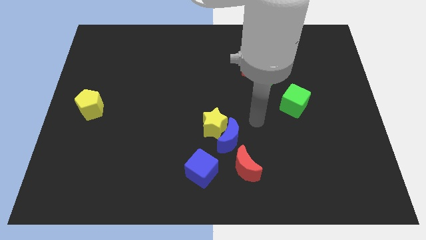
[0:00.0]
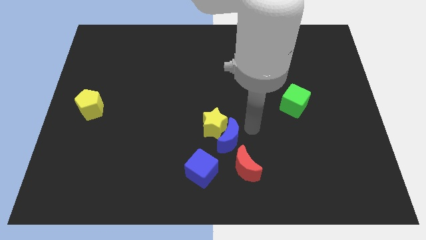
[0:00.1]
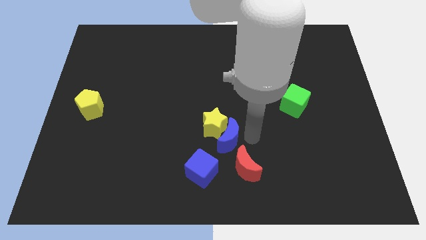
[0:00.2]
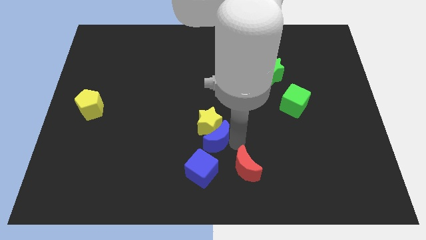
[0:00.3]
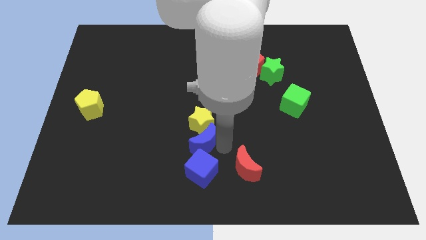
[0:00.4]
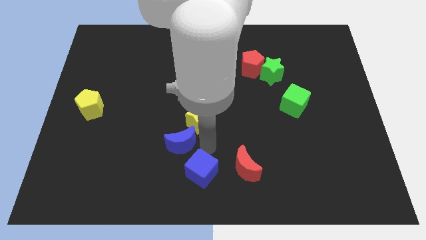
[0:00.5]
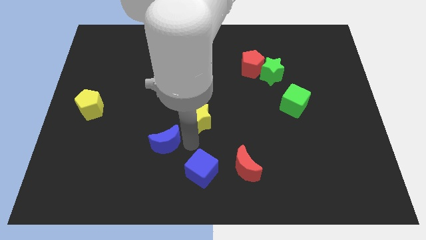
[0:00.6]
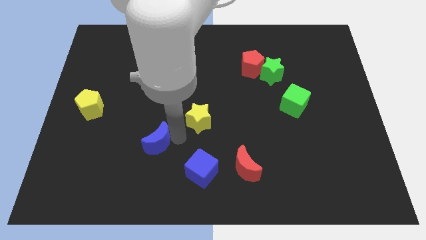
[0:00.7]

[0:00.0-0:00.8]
move the yellow star away from the blue moon

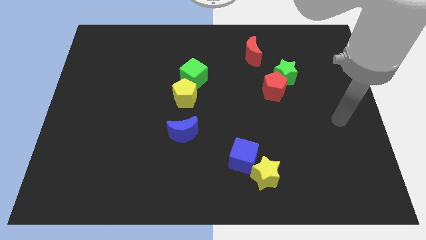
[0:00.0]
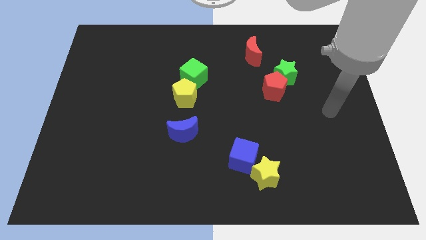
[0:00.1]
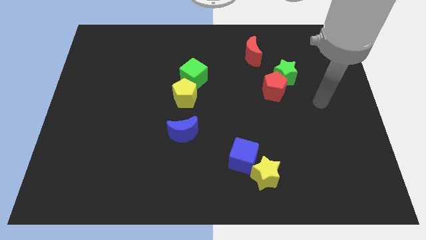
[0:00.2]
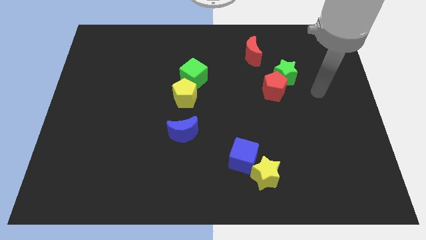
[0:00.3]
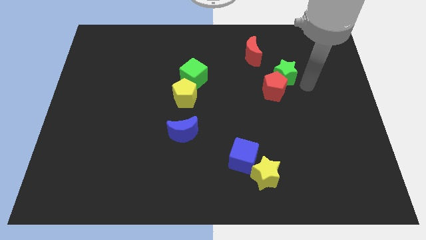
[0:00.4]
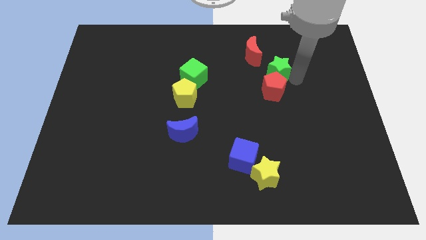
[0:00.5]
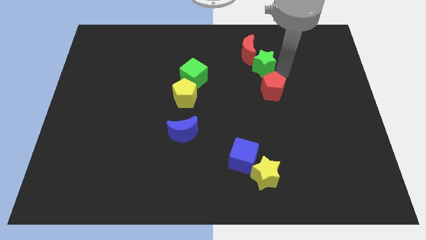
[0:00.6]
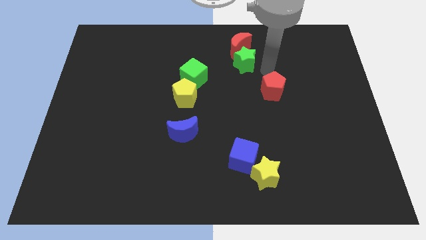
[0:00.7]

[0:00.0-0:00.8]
separate the red pentagon from the green star

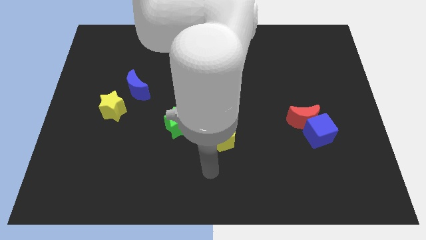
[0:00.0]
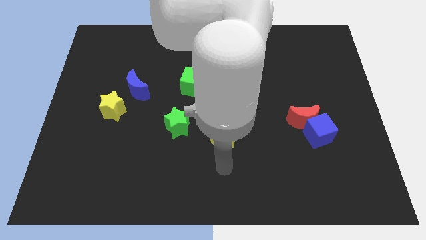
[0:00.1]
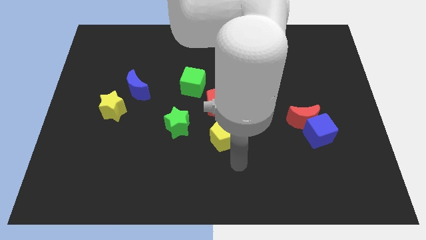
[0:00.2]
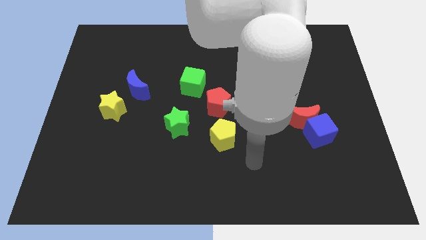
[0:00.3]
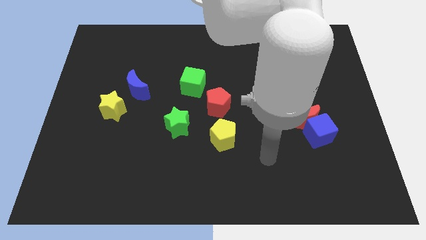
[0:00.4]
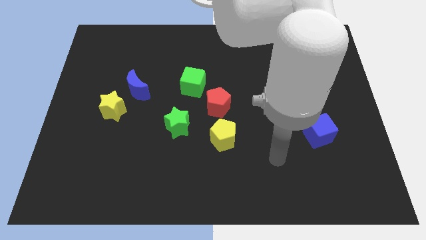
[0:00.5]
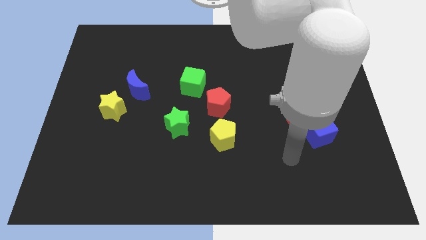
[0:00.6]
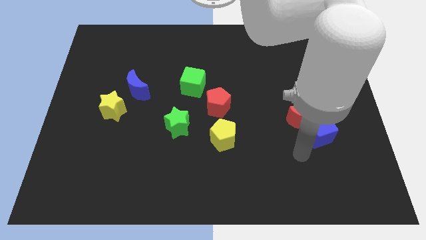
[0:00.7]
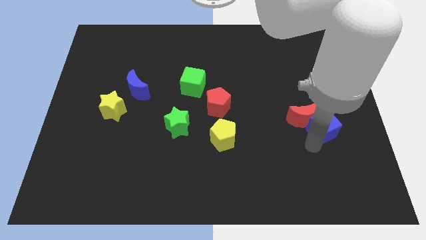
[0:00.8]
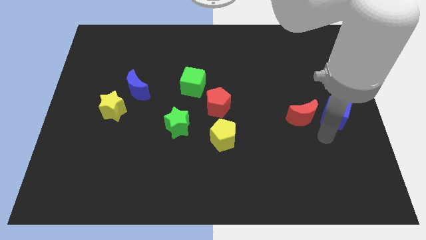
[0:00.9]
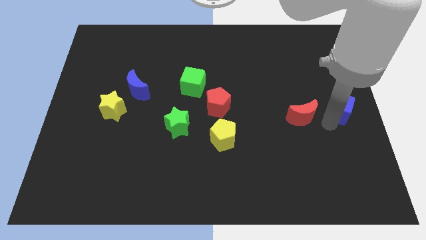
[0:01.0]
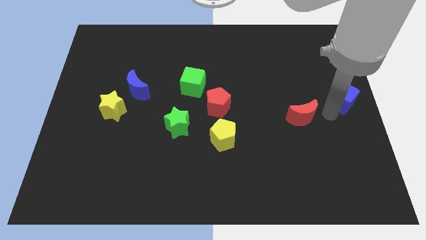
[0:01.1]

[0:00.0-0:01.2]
move the red moon away from the blue cube

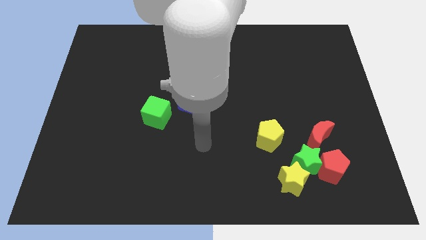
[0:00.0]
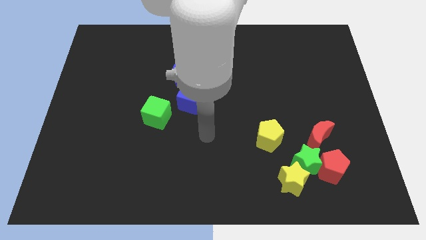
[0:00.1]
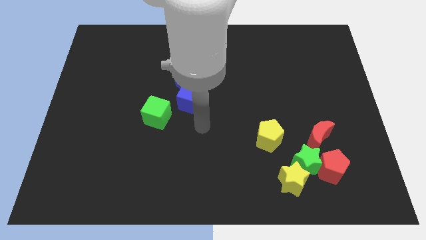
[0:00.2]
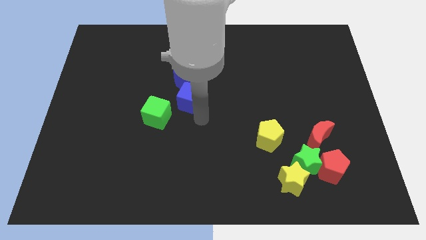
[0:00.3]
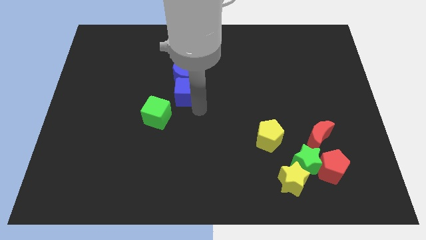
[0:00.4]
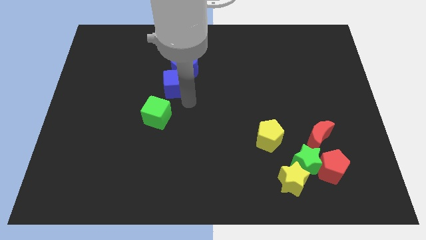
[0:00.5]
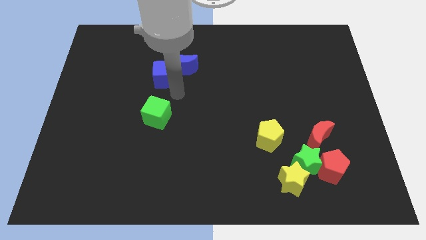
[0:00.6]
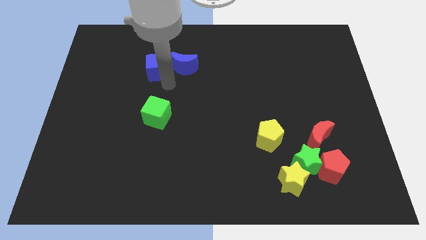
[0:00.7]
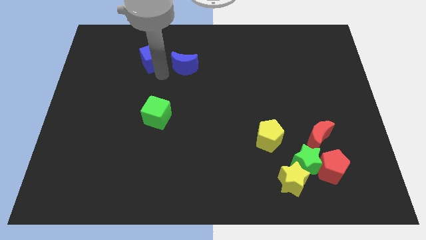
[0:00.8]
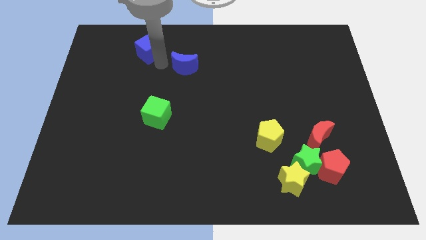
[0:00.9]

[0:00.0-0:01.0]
pull the blue moon apart from the blue cube

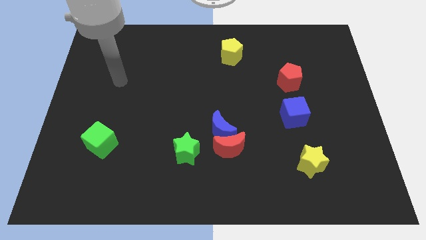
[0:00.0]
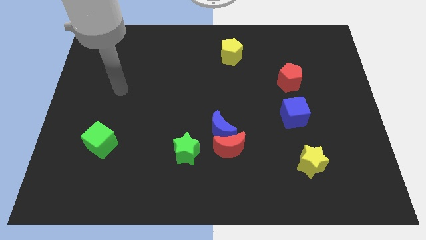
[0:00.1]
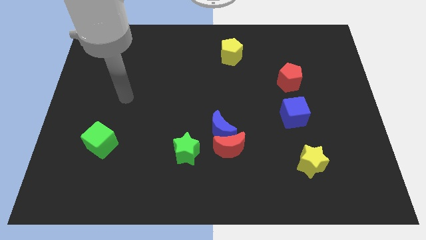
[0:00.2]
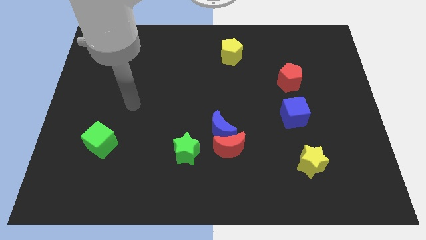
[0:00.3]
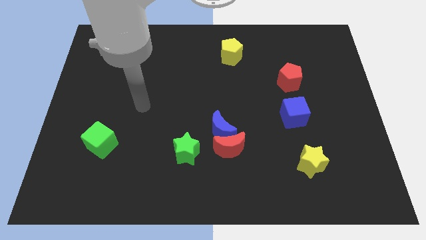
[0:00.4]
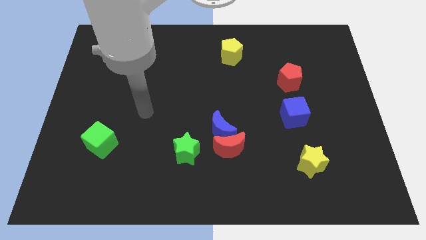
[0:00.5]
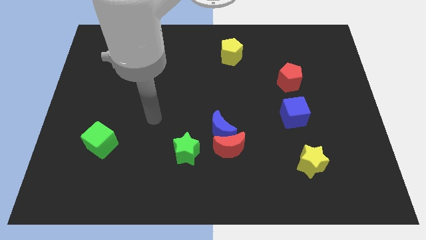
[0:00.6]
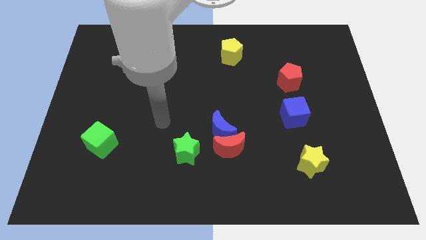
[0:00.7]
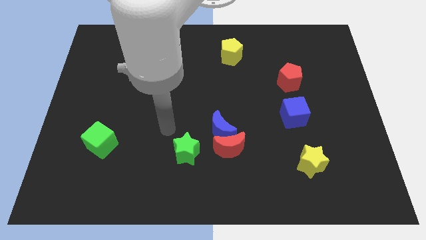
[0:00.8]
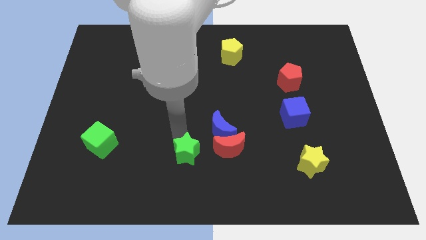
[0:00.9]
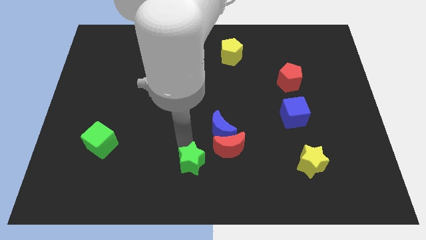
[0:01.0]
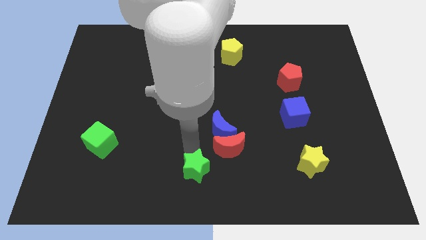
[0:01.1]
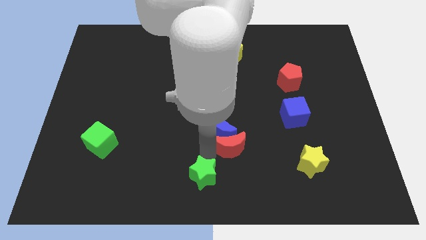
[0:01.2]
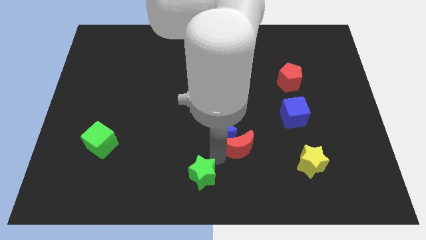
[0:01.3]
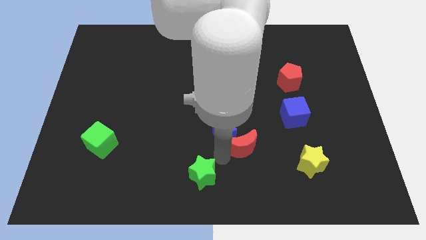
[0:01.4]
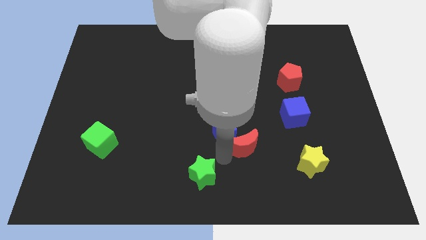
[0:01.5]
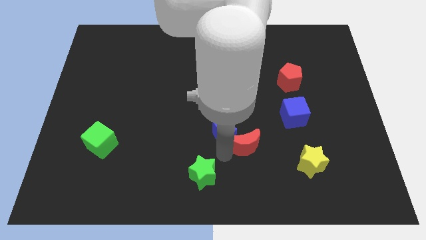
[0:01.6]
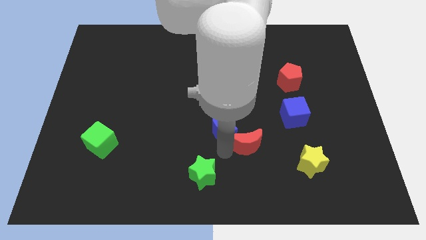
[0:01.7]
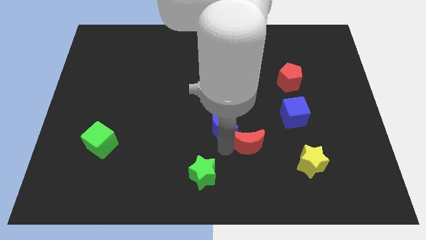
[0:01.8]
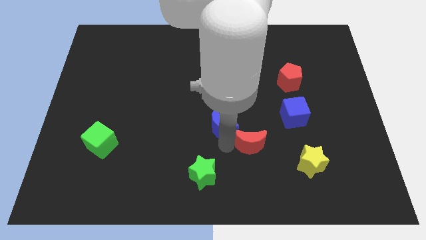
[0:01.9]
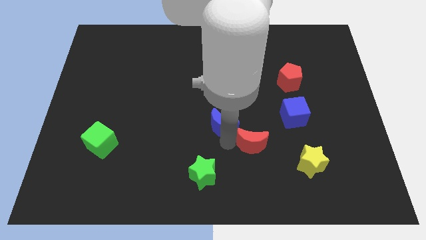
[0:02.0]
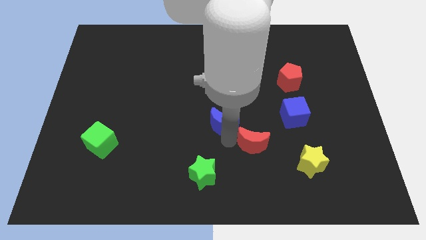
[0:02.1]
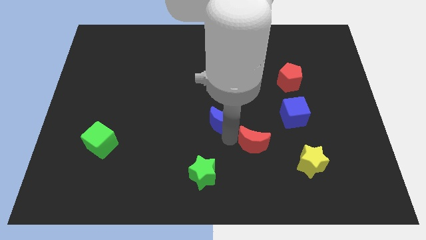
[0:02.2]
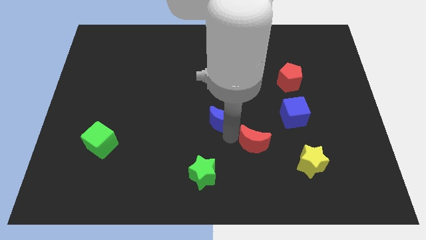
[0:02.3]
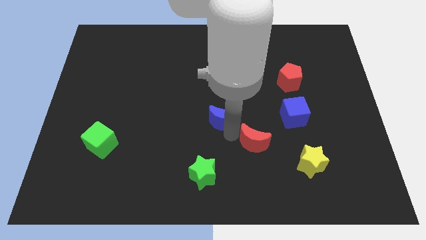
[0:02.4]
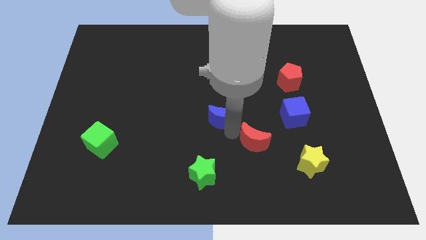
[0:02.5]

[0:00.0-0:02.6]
move the blue moon away from the red moon and green star

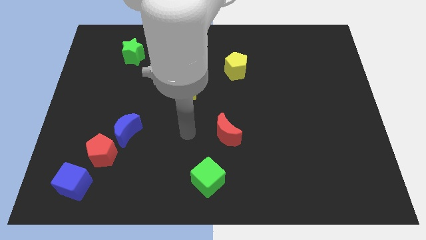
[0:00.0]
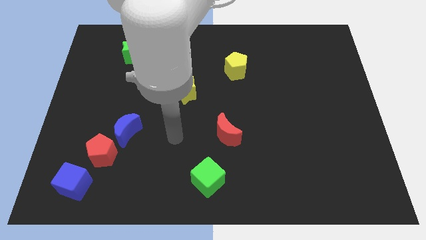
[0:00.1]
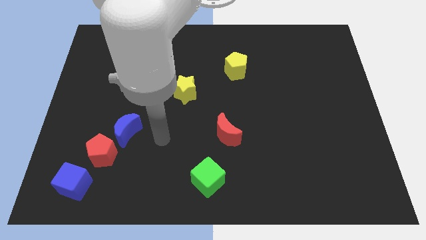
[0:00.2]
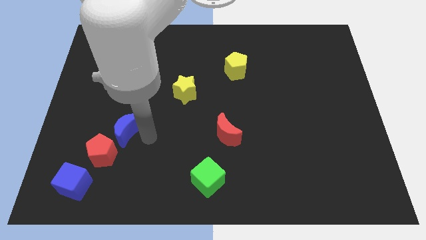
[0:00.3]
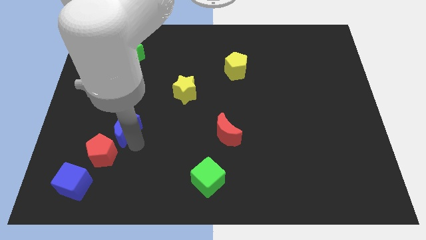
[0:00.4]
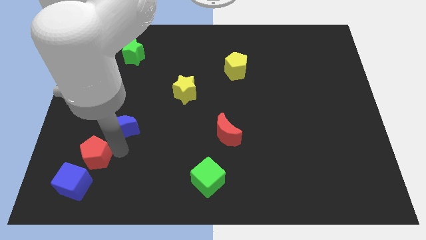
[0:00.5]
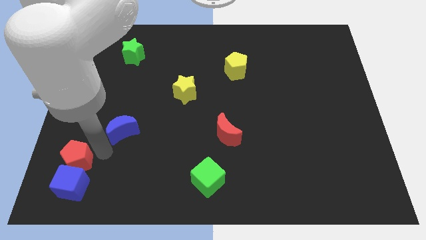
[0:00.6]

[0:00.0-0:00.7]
separate the blue moon from the red pentagon

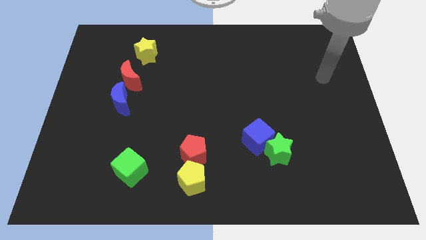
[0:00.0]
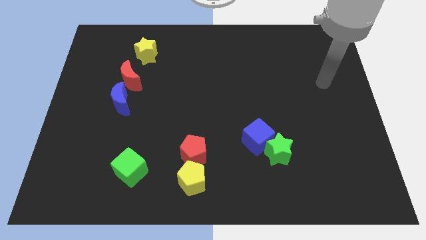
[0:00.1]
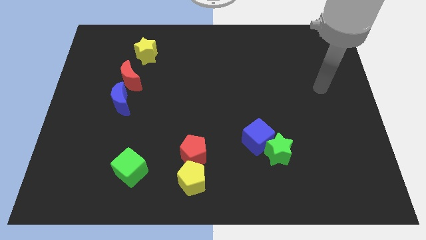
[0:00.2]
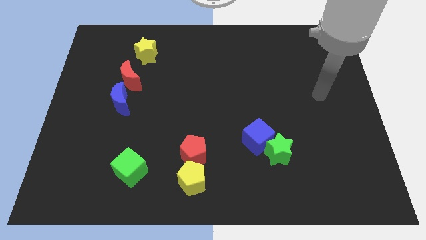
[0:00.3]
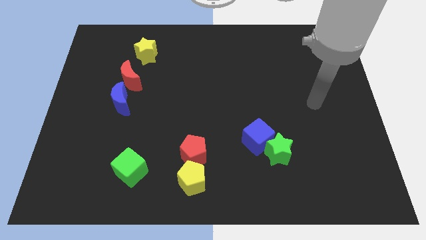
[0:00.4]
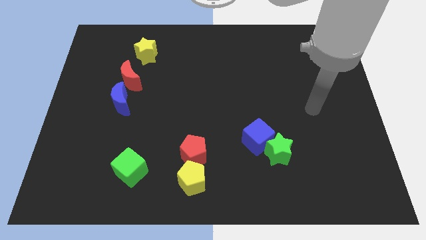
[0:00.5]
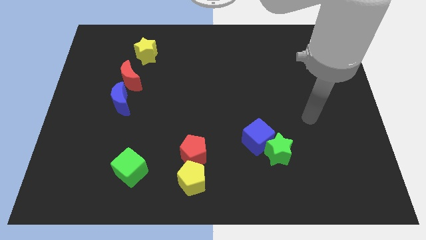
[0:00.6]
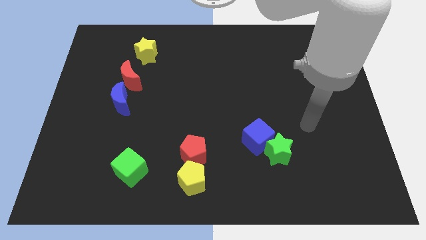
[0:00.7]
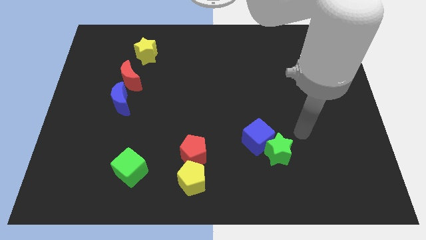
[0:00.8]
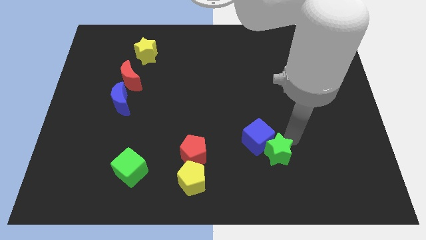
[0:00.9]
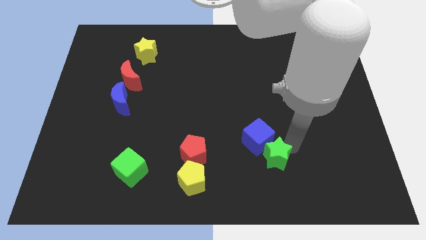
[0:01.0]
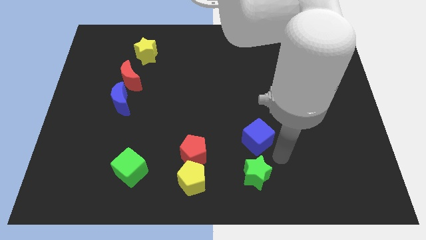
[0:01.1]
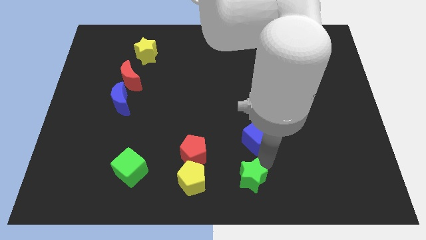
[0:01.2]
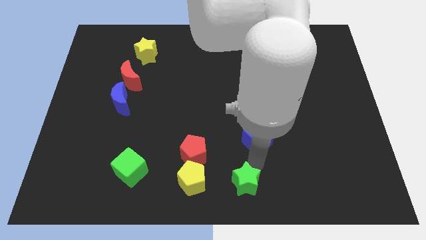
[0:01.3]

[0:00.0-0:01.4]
separate the blue cube from the green star

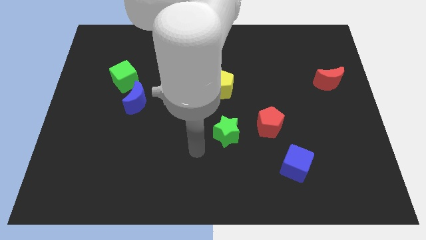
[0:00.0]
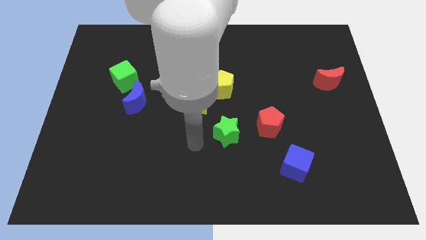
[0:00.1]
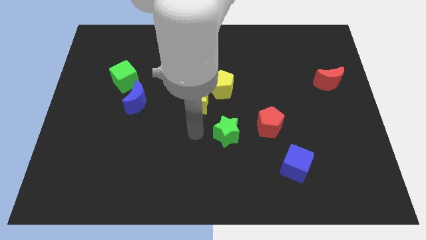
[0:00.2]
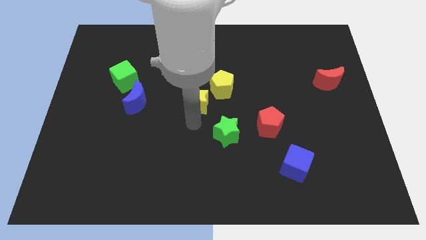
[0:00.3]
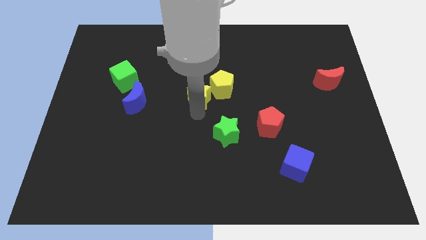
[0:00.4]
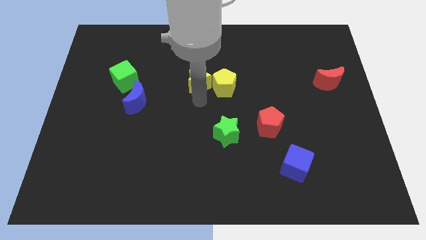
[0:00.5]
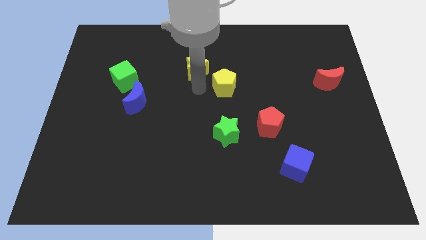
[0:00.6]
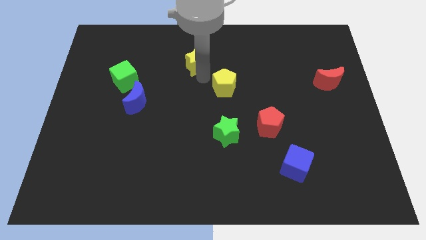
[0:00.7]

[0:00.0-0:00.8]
move the yellow pentagon away from the yellow star
